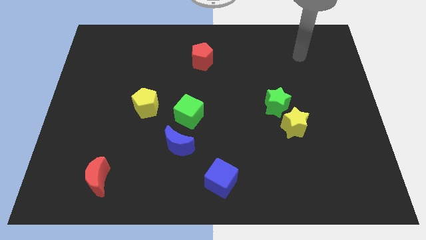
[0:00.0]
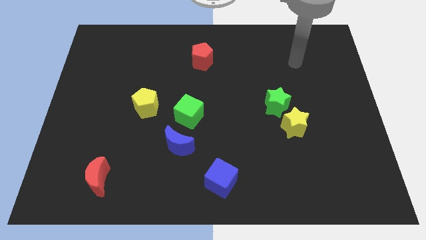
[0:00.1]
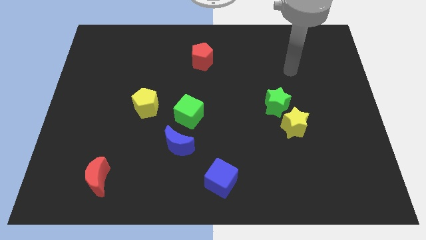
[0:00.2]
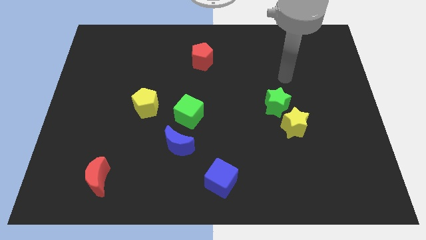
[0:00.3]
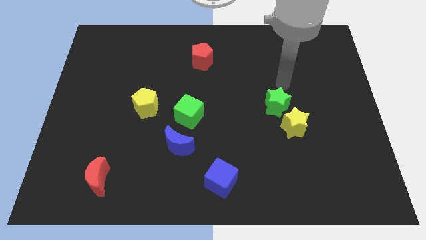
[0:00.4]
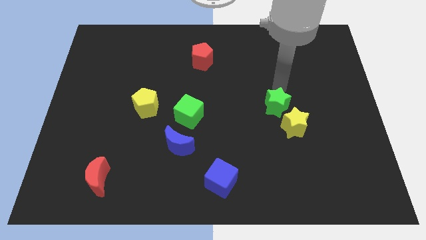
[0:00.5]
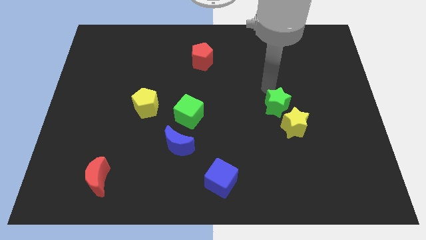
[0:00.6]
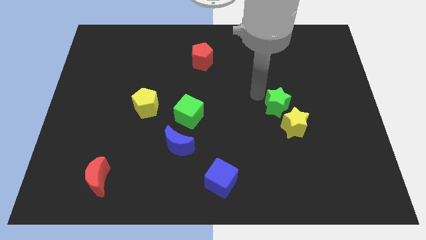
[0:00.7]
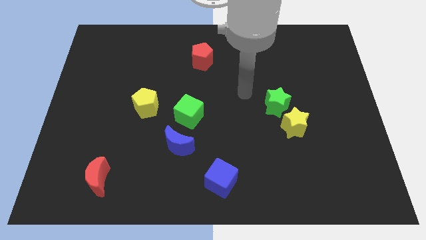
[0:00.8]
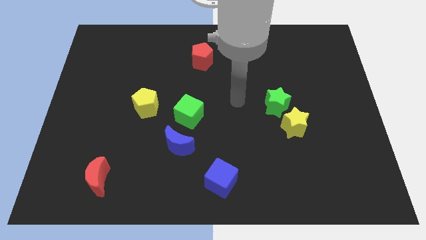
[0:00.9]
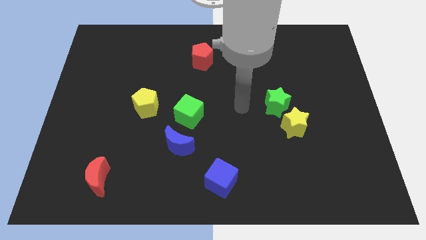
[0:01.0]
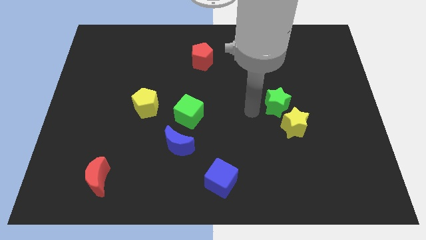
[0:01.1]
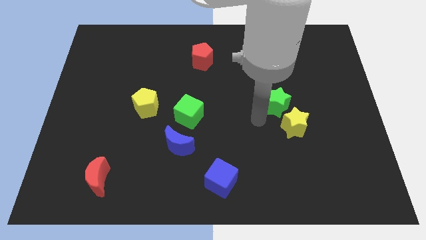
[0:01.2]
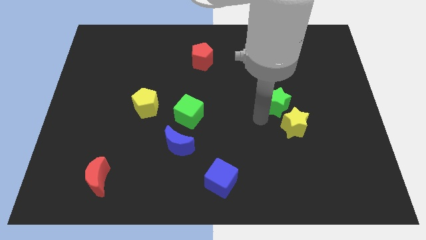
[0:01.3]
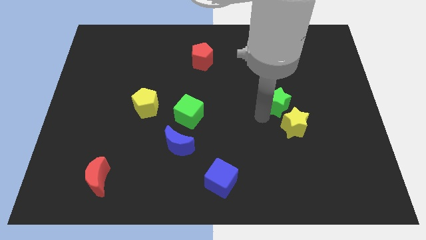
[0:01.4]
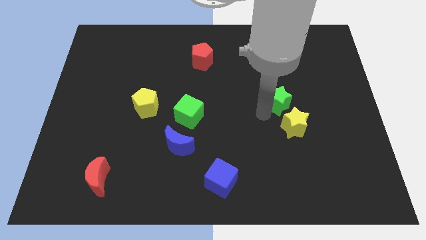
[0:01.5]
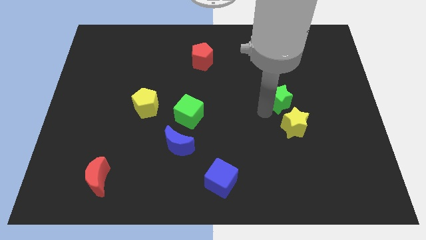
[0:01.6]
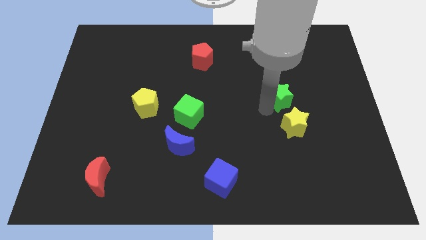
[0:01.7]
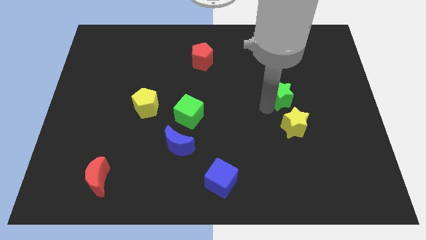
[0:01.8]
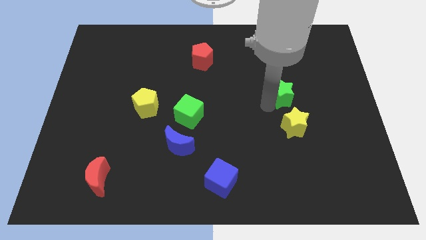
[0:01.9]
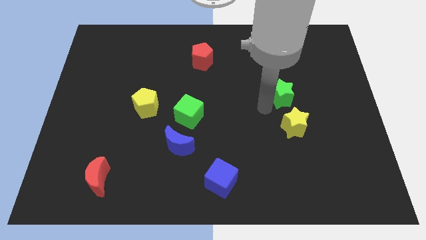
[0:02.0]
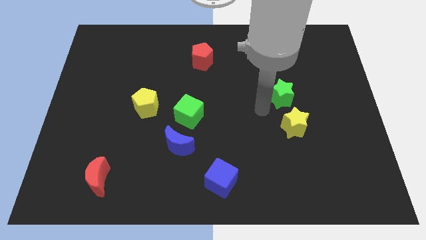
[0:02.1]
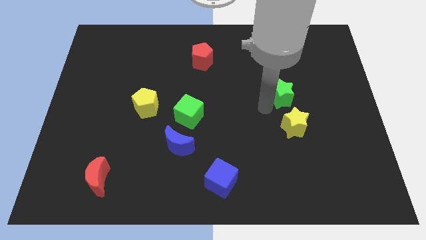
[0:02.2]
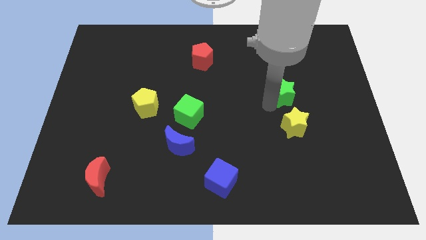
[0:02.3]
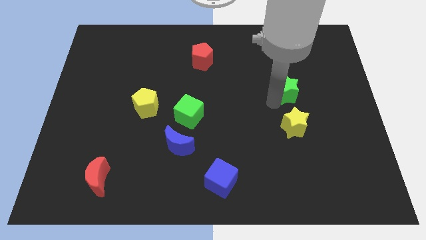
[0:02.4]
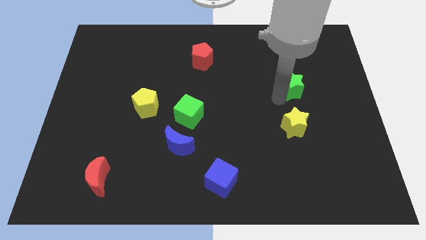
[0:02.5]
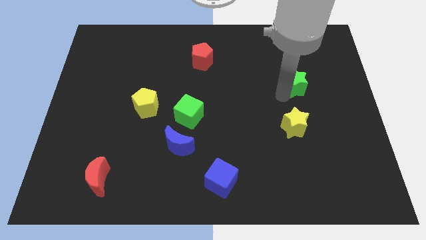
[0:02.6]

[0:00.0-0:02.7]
slide the green star upwards and right diagonally a bit

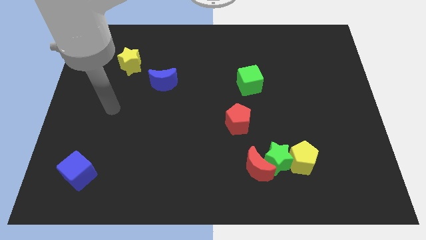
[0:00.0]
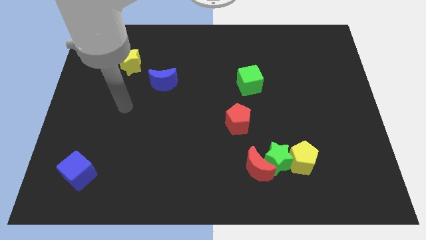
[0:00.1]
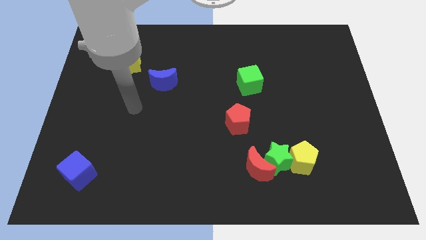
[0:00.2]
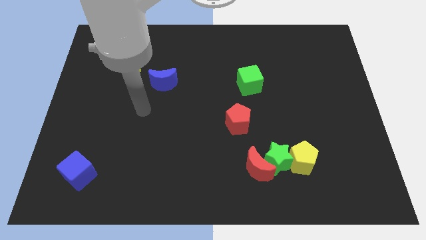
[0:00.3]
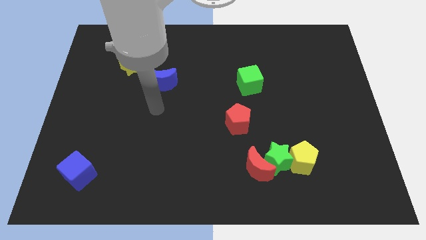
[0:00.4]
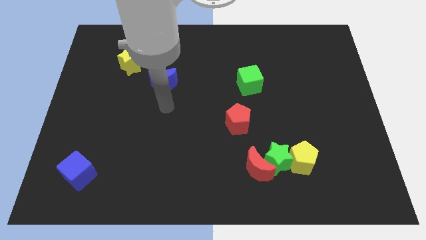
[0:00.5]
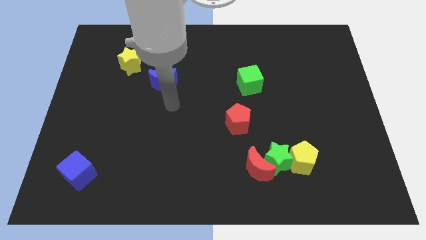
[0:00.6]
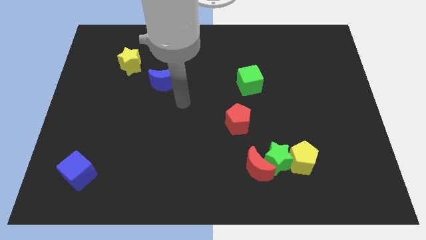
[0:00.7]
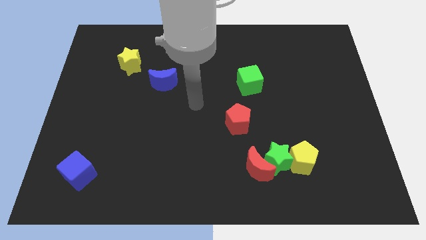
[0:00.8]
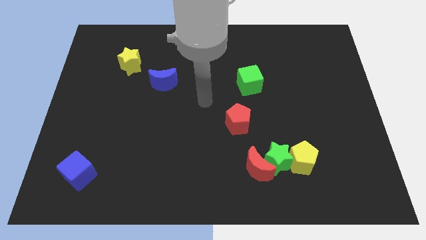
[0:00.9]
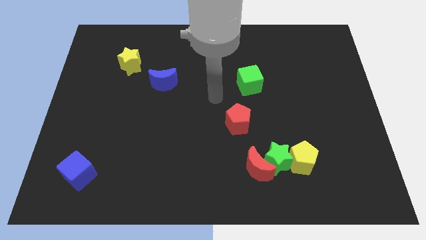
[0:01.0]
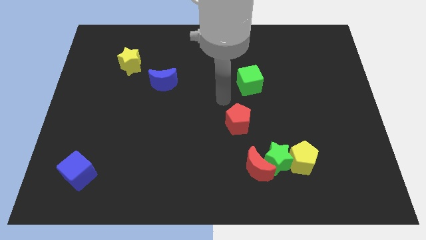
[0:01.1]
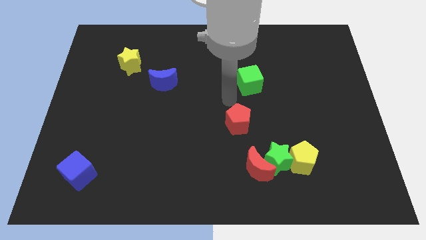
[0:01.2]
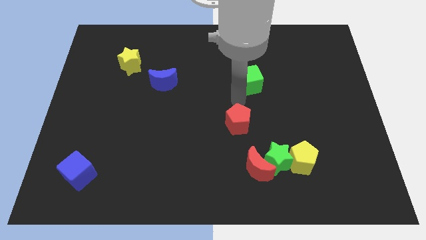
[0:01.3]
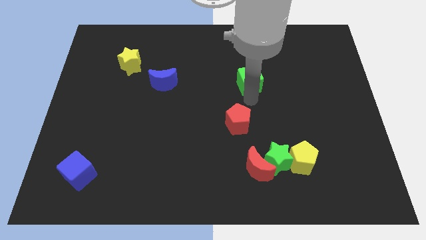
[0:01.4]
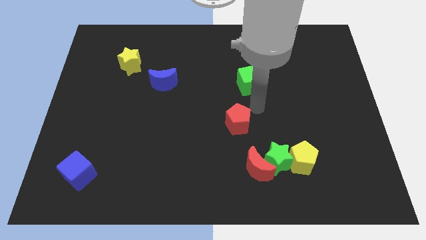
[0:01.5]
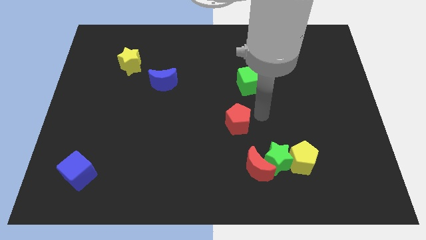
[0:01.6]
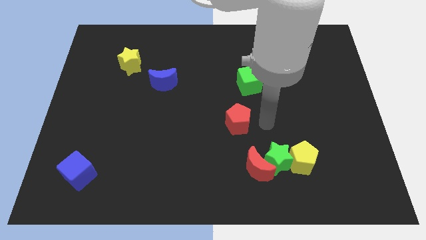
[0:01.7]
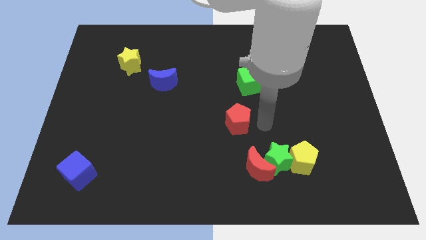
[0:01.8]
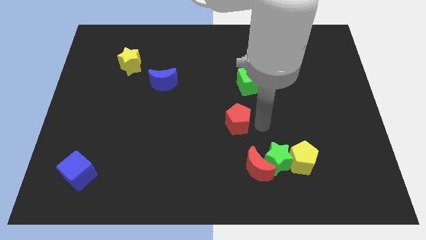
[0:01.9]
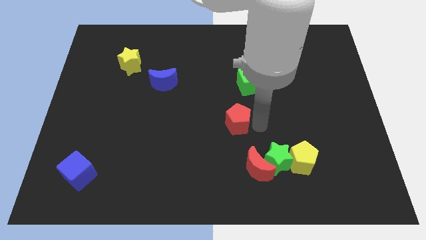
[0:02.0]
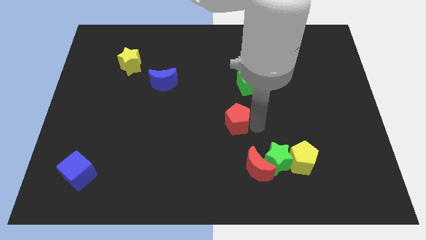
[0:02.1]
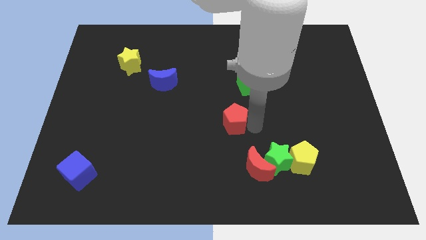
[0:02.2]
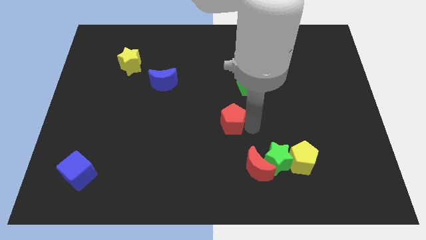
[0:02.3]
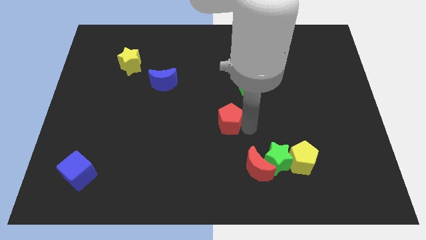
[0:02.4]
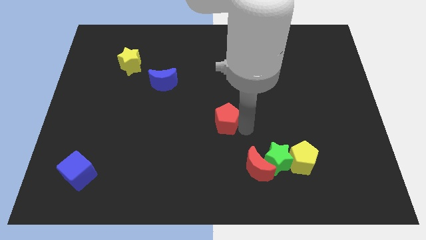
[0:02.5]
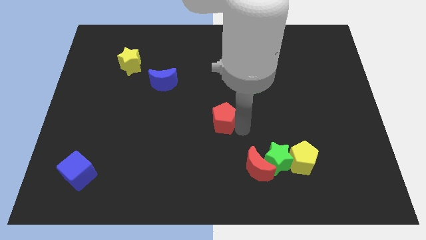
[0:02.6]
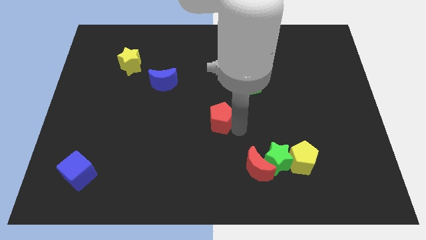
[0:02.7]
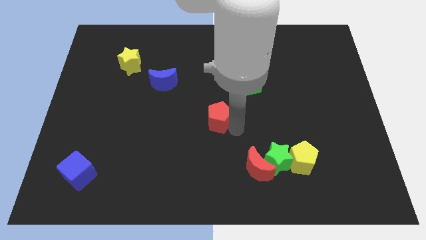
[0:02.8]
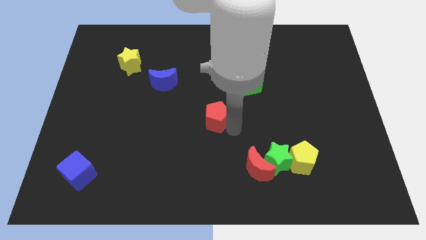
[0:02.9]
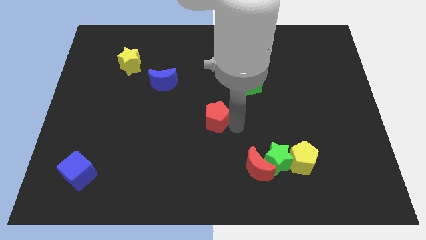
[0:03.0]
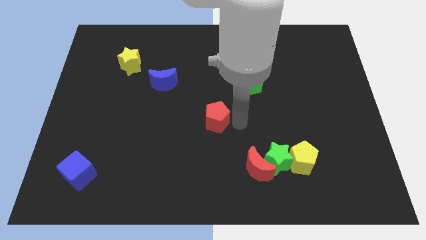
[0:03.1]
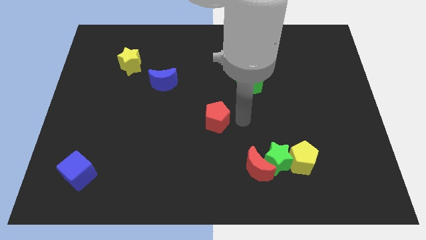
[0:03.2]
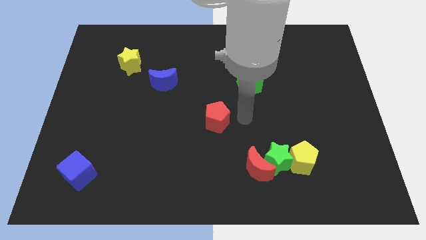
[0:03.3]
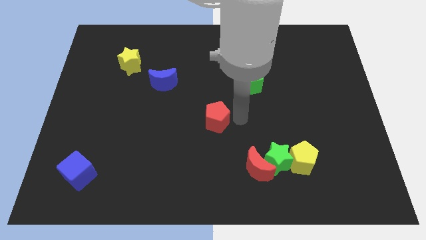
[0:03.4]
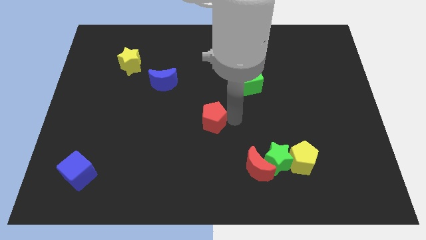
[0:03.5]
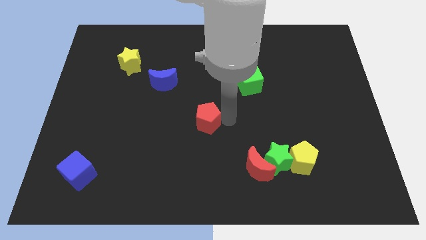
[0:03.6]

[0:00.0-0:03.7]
push the red pentagon left somewhat

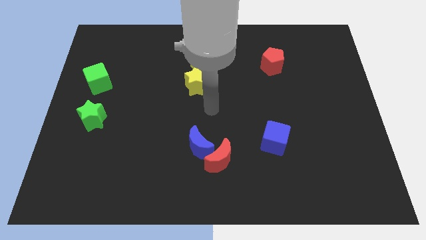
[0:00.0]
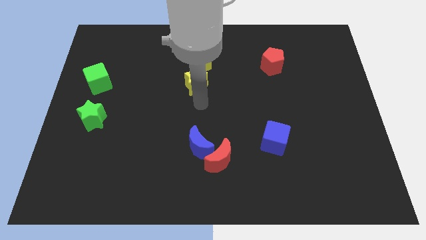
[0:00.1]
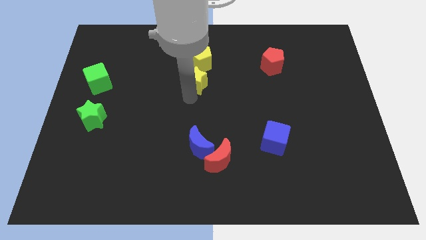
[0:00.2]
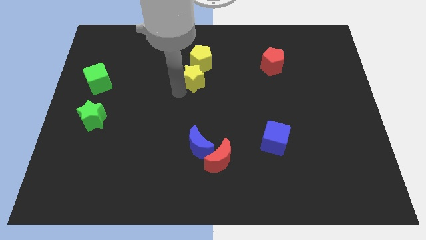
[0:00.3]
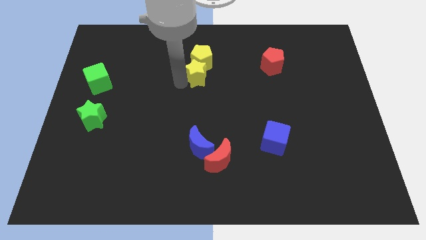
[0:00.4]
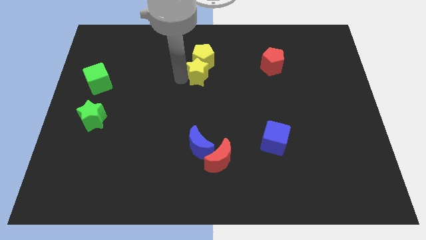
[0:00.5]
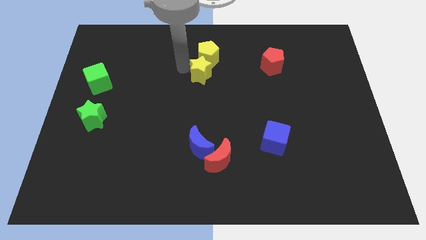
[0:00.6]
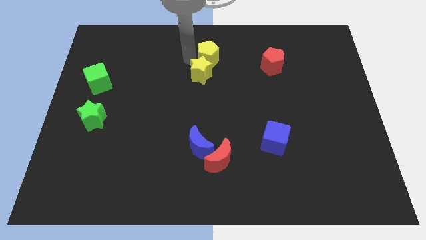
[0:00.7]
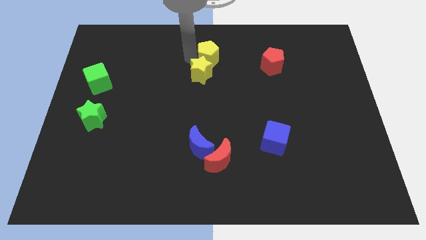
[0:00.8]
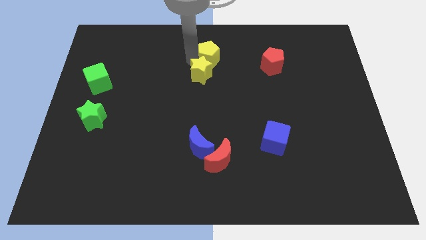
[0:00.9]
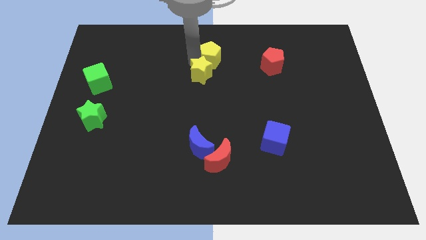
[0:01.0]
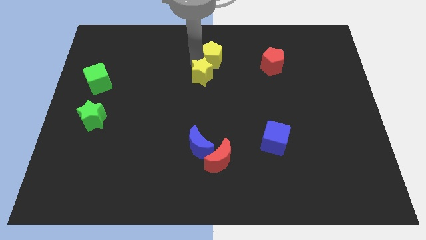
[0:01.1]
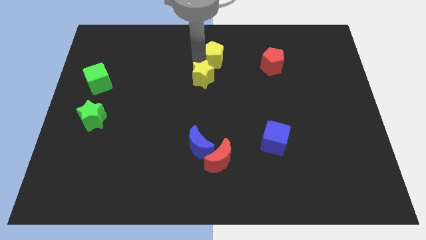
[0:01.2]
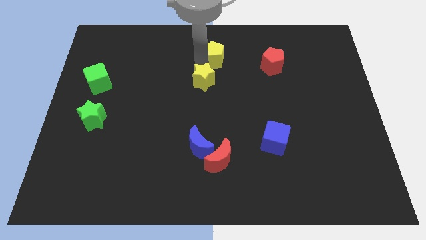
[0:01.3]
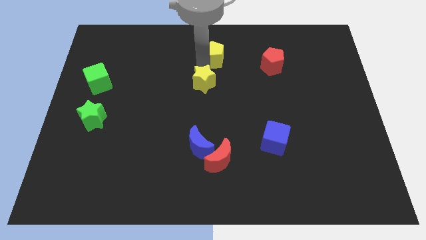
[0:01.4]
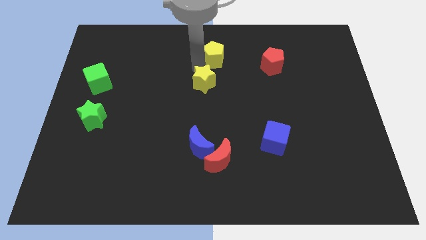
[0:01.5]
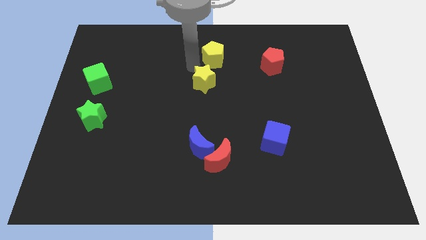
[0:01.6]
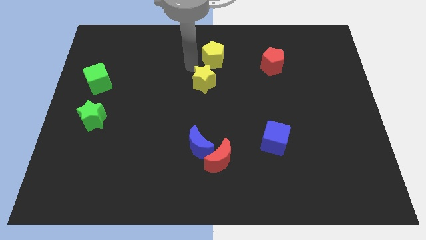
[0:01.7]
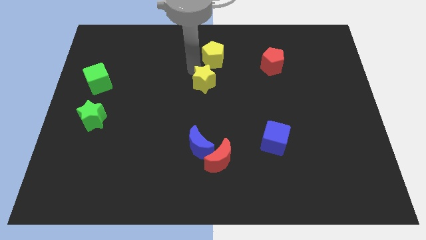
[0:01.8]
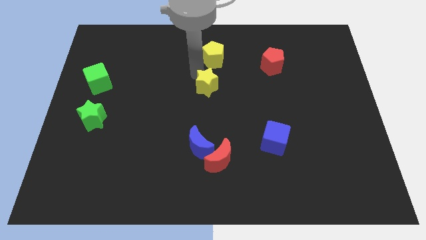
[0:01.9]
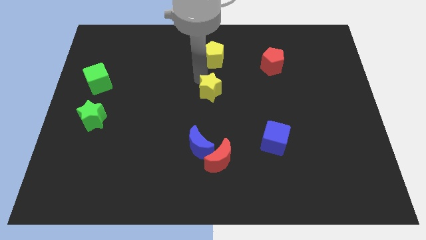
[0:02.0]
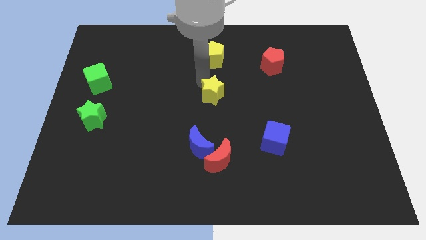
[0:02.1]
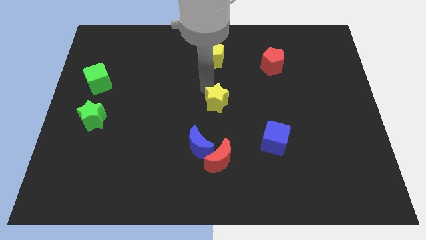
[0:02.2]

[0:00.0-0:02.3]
push the yellow star diagonally downwards and right a little
